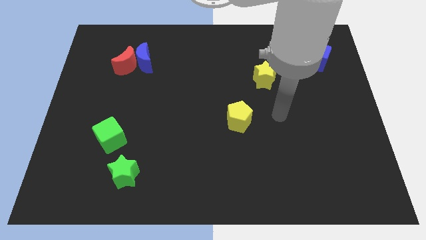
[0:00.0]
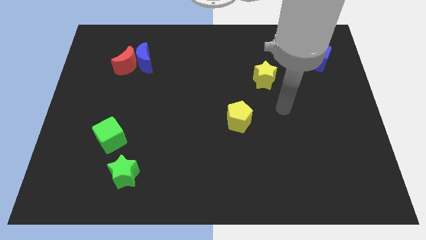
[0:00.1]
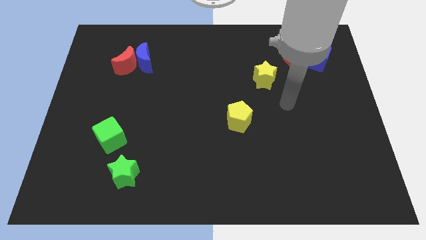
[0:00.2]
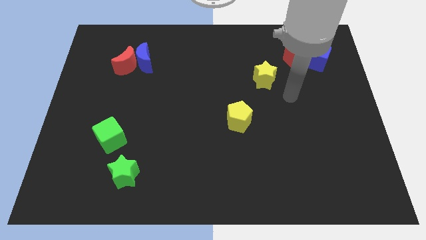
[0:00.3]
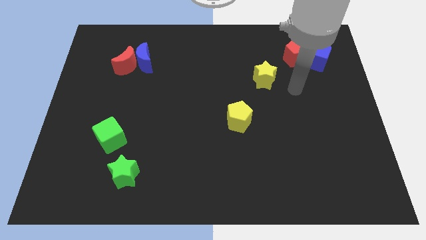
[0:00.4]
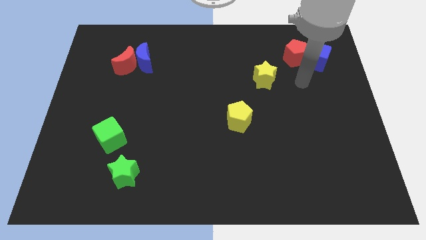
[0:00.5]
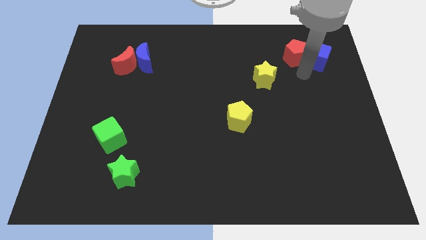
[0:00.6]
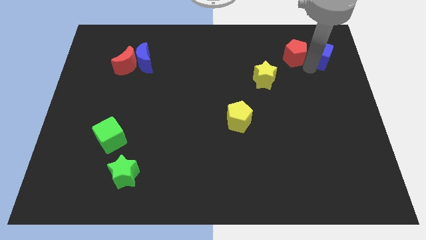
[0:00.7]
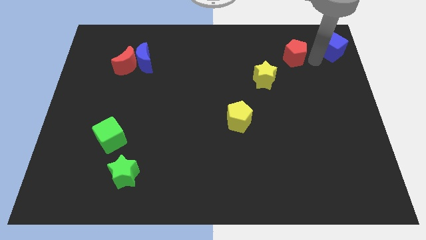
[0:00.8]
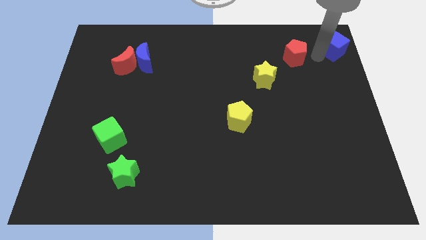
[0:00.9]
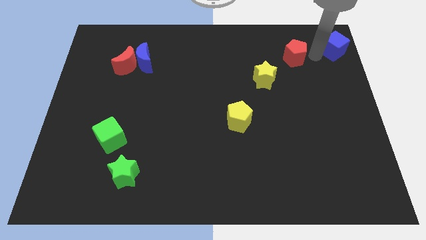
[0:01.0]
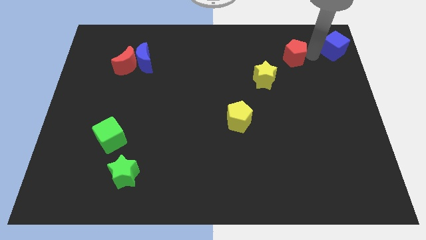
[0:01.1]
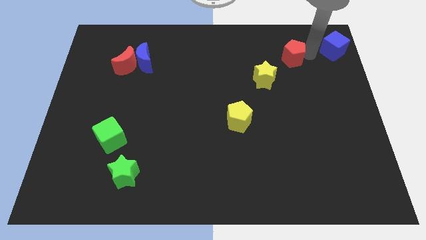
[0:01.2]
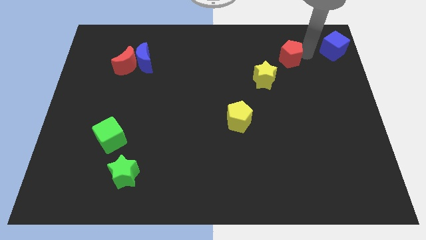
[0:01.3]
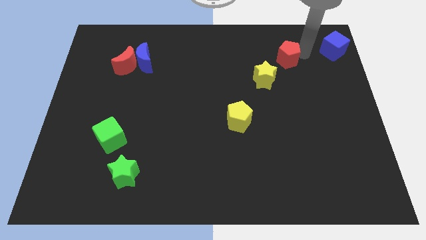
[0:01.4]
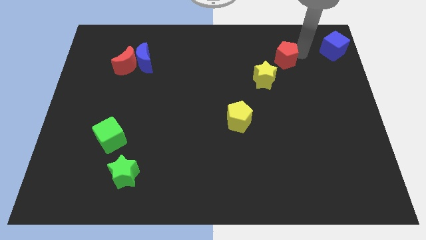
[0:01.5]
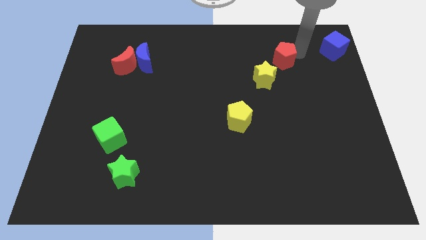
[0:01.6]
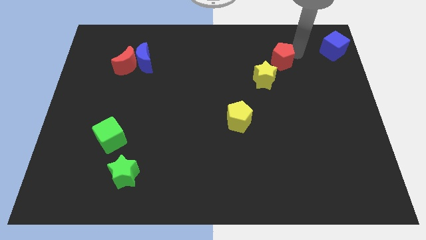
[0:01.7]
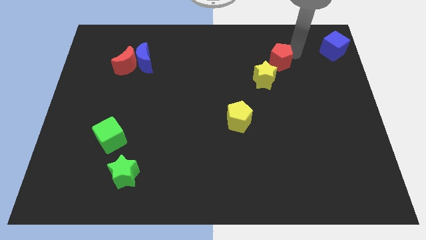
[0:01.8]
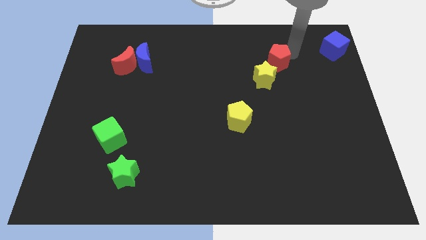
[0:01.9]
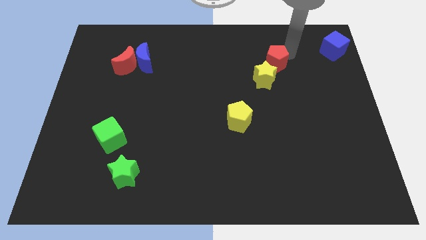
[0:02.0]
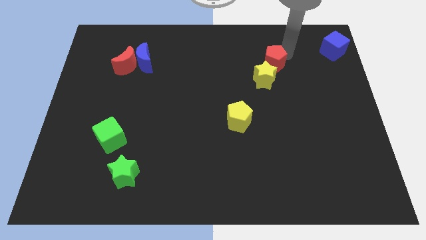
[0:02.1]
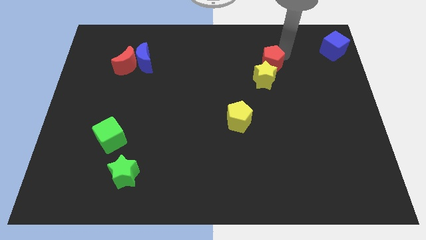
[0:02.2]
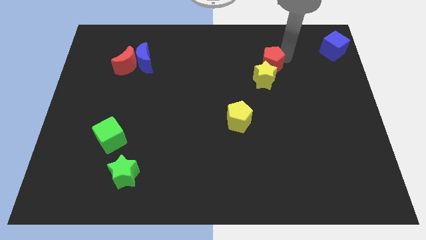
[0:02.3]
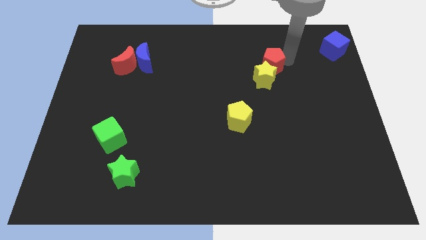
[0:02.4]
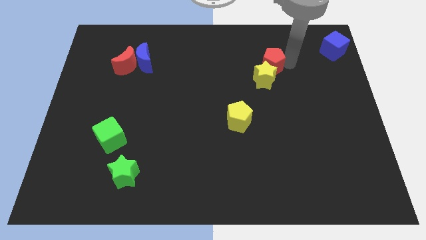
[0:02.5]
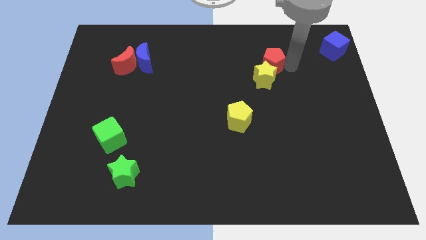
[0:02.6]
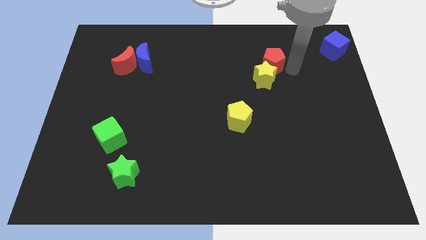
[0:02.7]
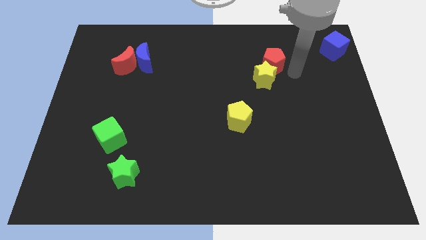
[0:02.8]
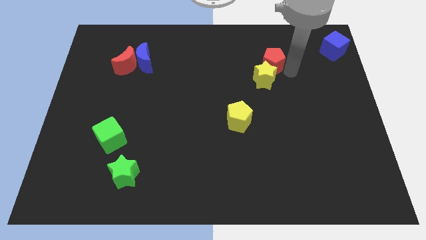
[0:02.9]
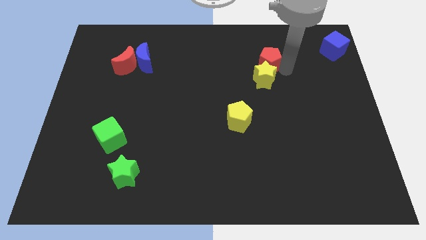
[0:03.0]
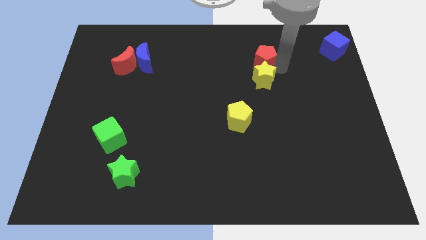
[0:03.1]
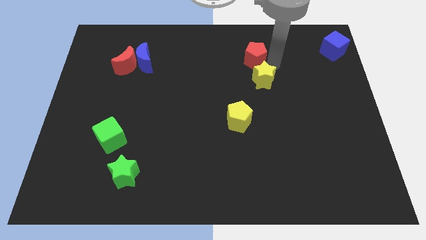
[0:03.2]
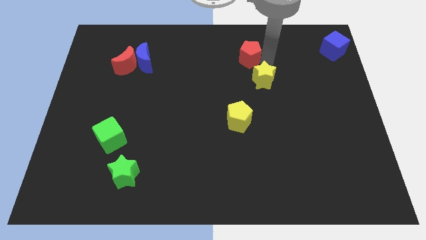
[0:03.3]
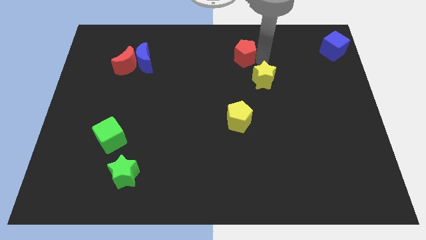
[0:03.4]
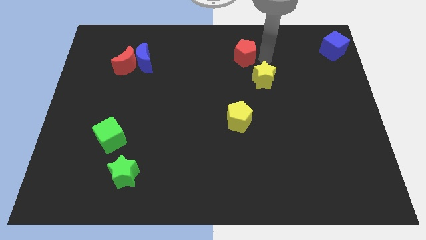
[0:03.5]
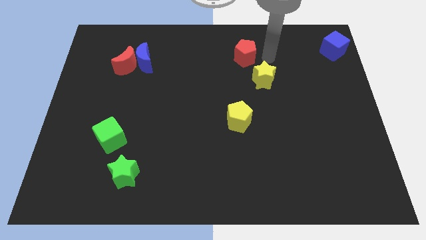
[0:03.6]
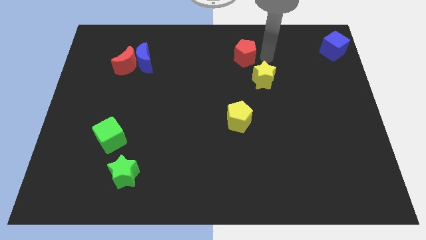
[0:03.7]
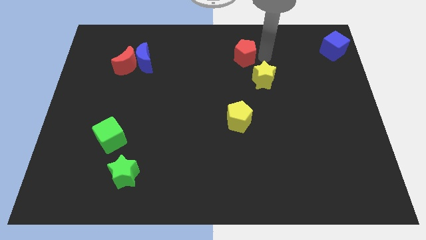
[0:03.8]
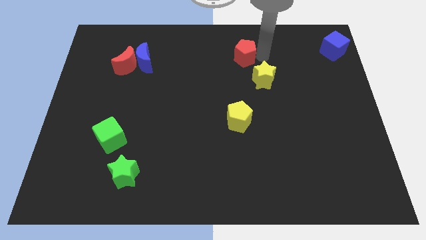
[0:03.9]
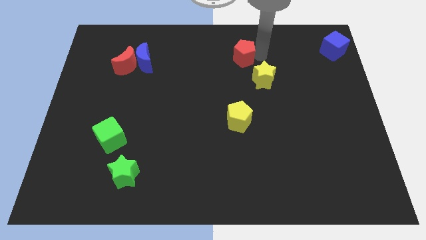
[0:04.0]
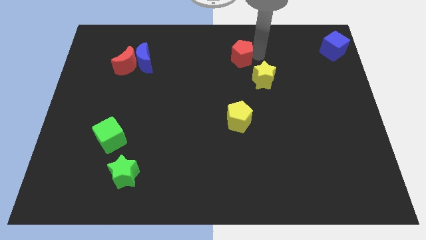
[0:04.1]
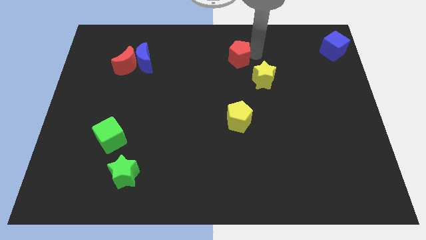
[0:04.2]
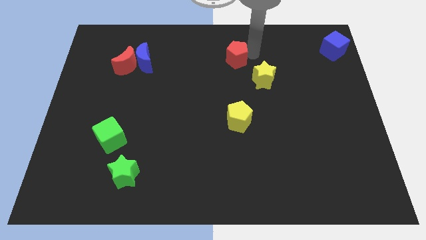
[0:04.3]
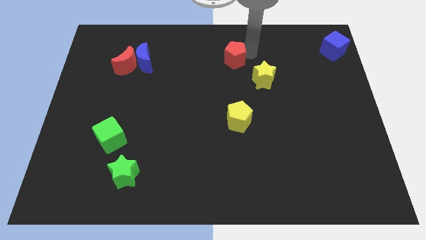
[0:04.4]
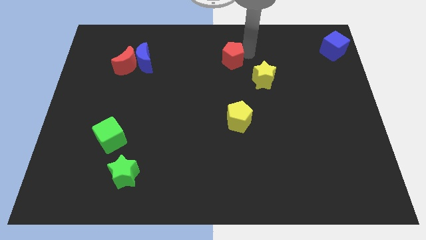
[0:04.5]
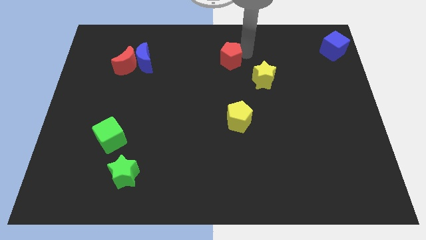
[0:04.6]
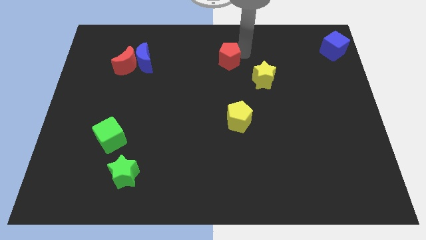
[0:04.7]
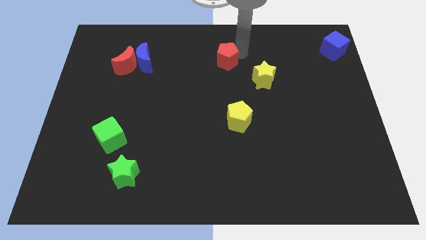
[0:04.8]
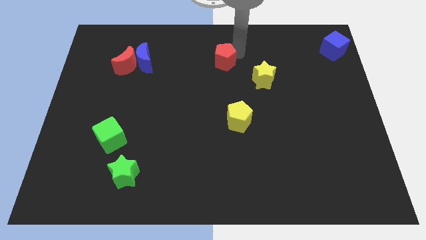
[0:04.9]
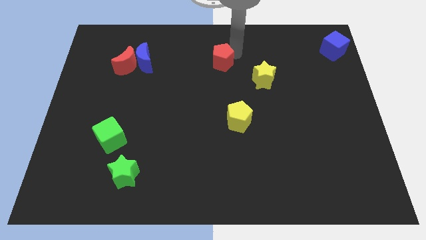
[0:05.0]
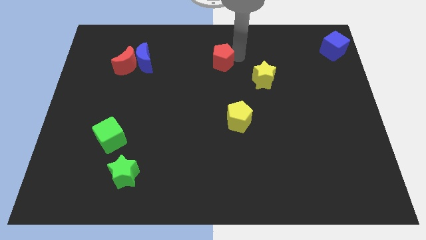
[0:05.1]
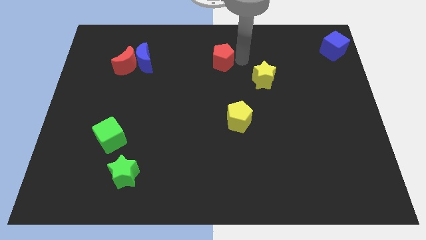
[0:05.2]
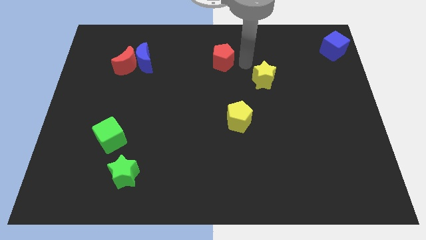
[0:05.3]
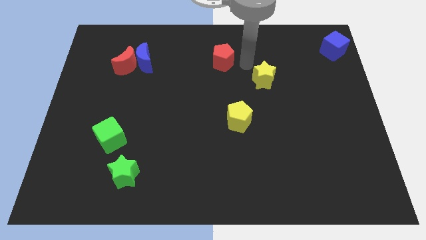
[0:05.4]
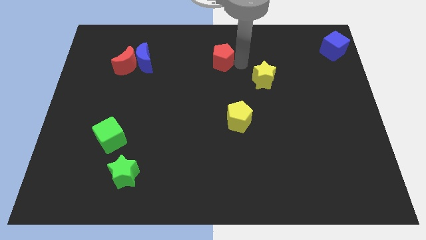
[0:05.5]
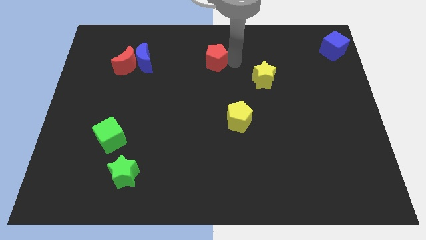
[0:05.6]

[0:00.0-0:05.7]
slide the red pentagon left

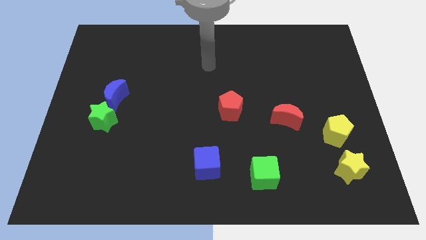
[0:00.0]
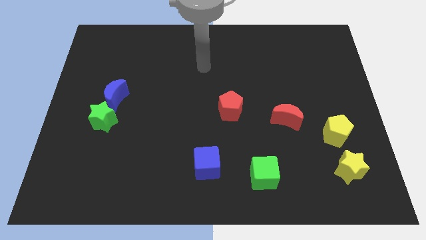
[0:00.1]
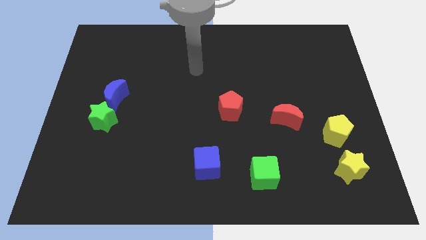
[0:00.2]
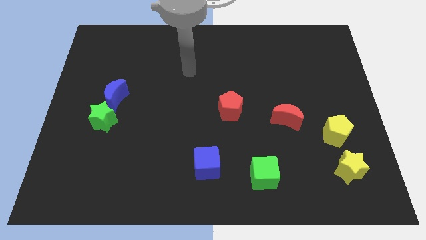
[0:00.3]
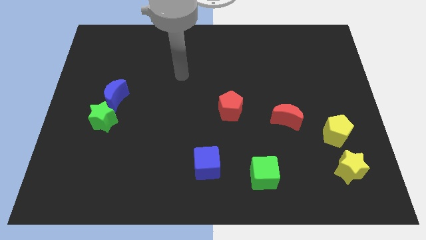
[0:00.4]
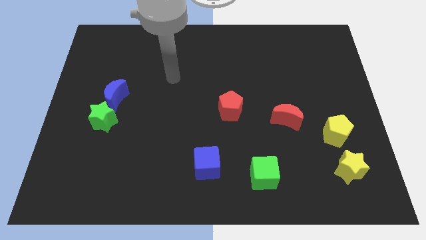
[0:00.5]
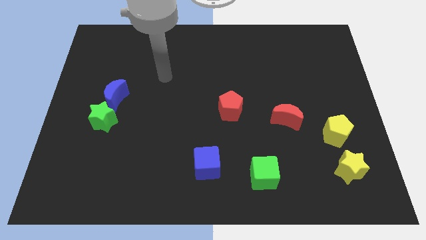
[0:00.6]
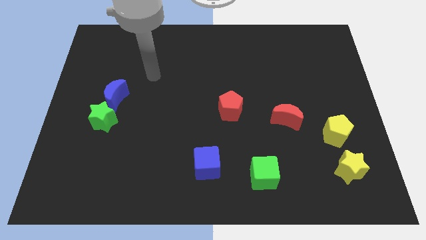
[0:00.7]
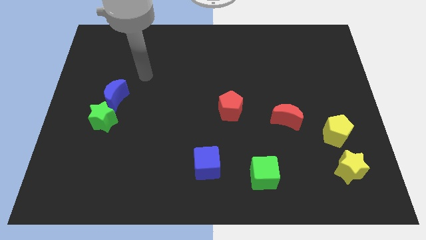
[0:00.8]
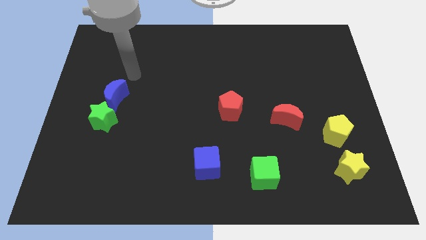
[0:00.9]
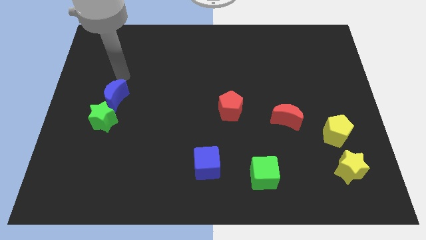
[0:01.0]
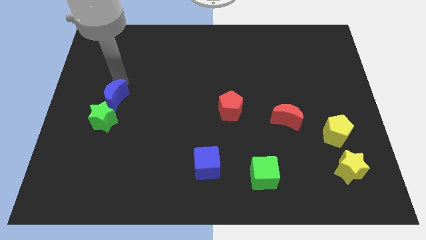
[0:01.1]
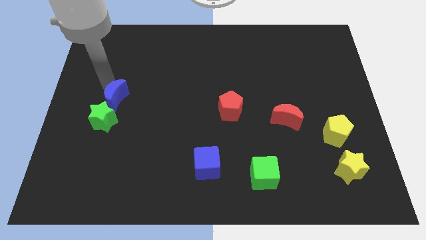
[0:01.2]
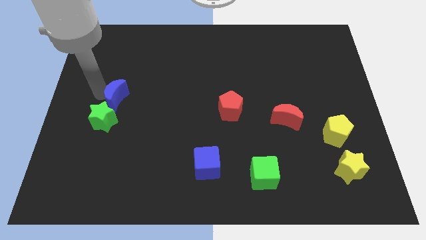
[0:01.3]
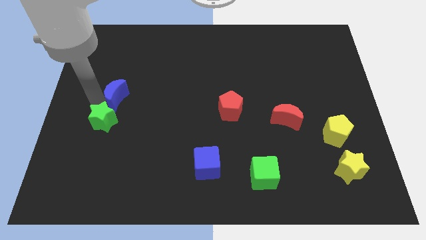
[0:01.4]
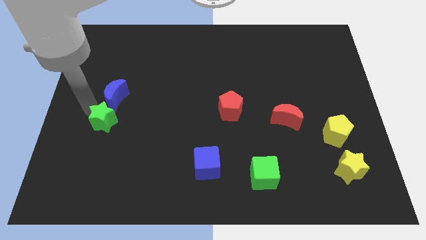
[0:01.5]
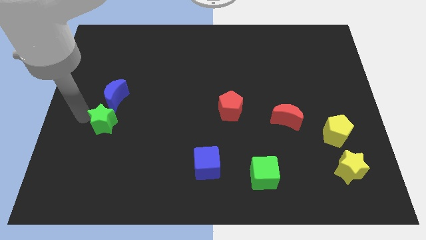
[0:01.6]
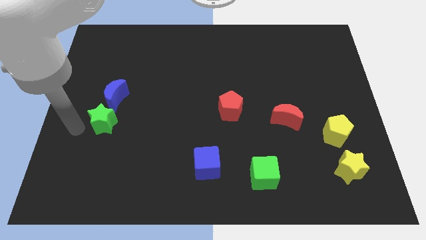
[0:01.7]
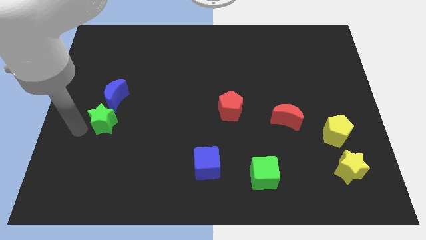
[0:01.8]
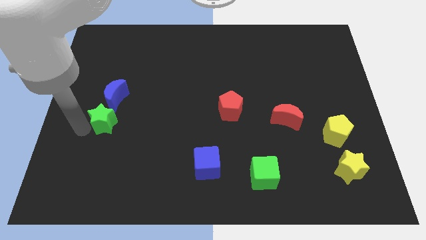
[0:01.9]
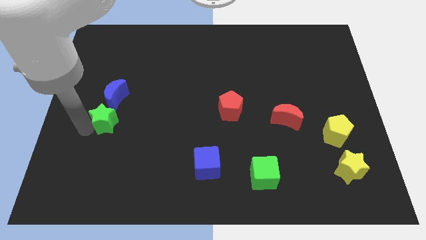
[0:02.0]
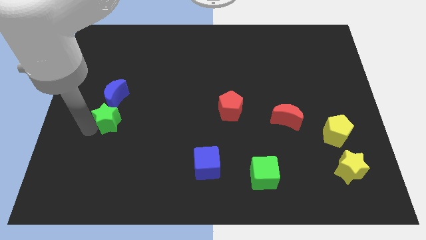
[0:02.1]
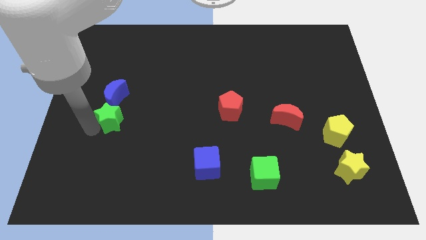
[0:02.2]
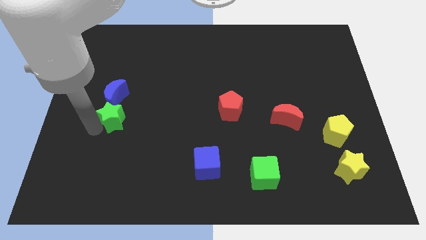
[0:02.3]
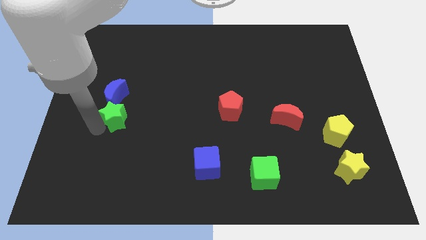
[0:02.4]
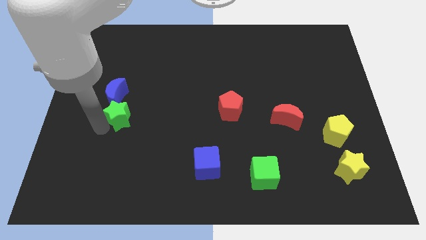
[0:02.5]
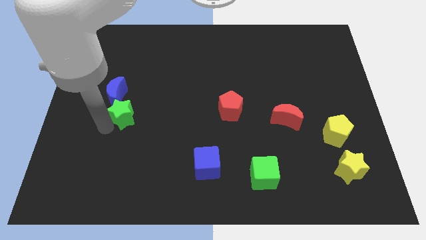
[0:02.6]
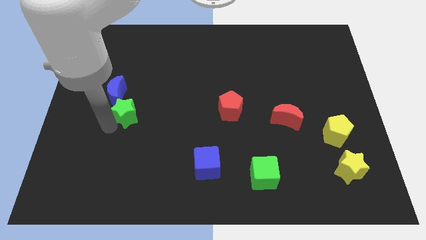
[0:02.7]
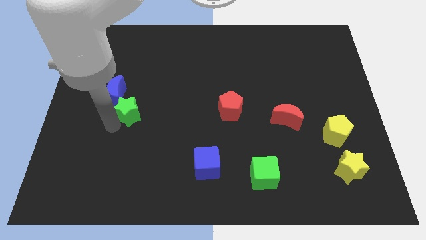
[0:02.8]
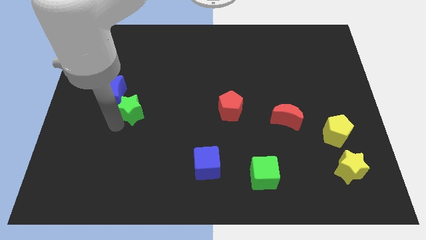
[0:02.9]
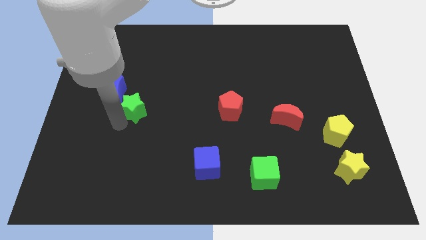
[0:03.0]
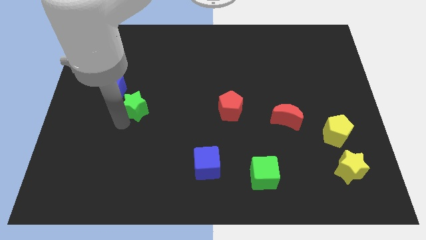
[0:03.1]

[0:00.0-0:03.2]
move the green star somewhat diagonally upwards and to the right
